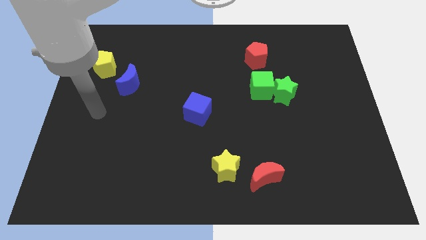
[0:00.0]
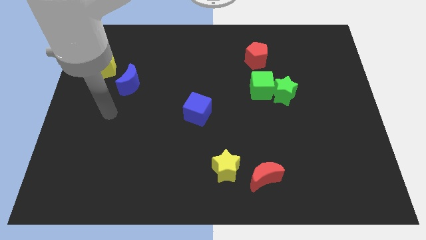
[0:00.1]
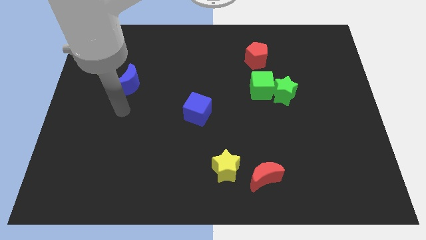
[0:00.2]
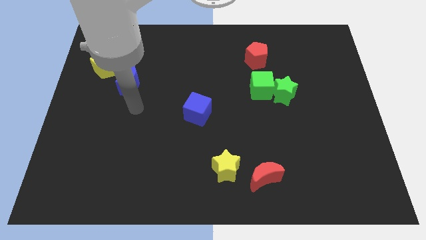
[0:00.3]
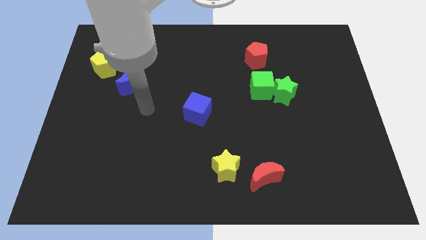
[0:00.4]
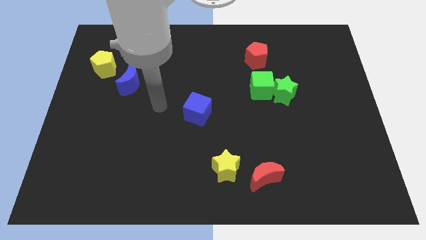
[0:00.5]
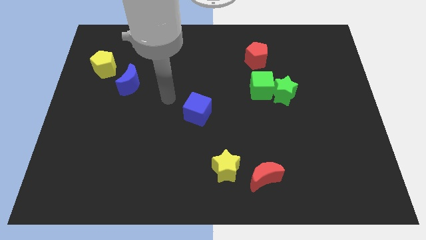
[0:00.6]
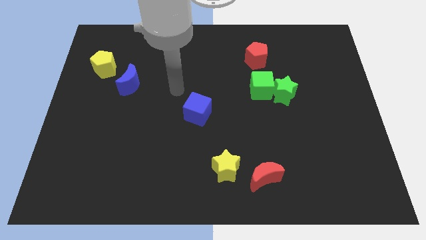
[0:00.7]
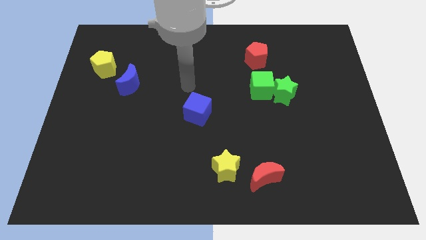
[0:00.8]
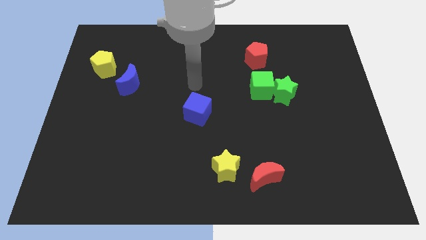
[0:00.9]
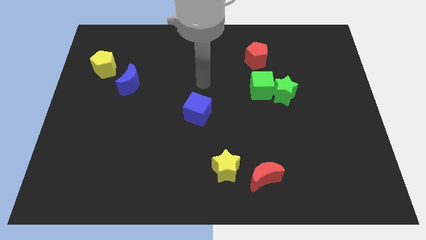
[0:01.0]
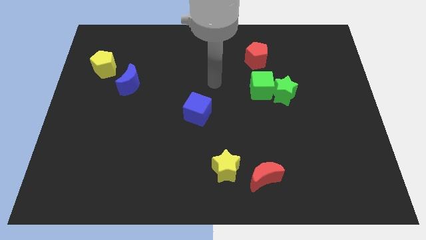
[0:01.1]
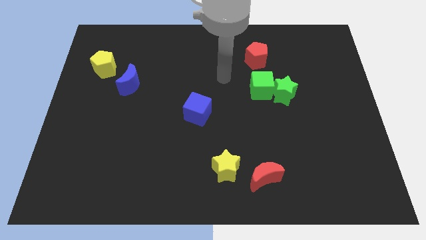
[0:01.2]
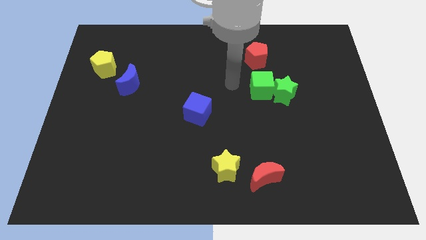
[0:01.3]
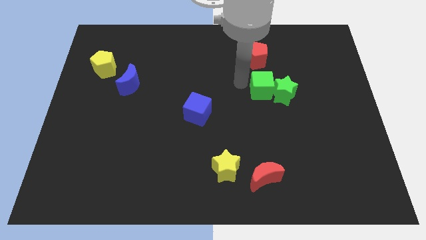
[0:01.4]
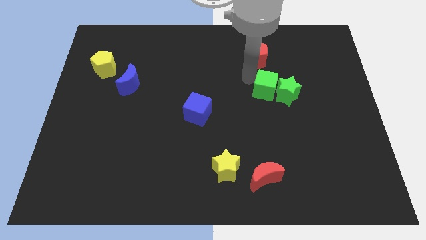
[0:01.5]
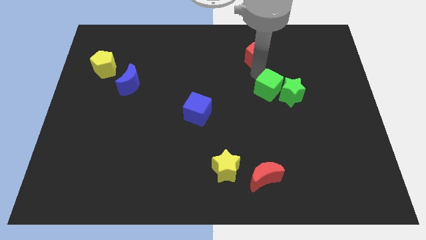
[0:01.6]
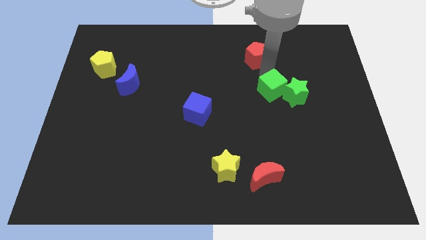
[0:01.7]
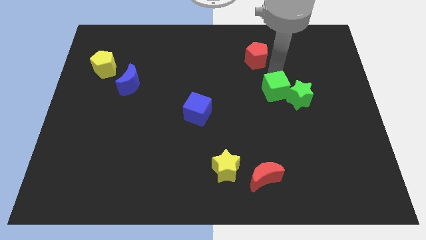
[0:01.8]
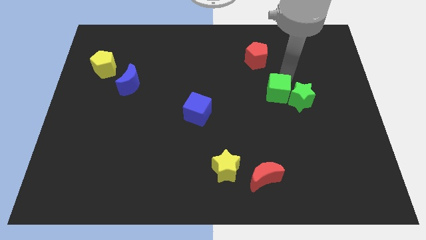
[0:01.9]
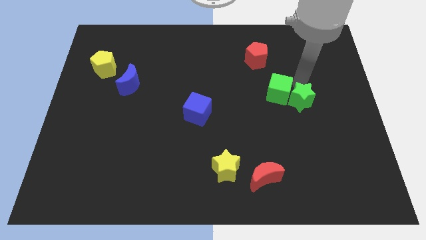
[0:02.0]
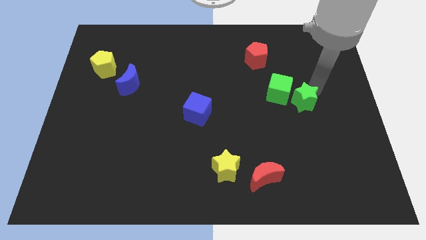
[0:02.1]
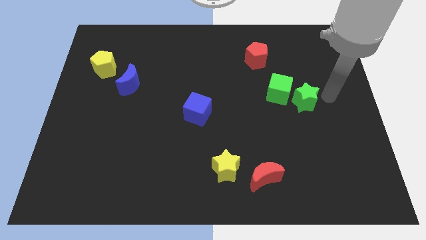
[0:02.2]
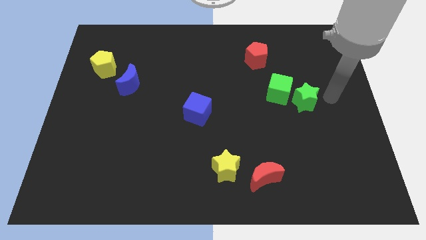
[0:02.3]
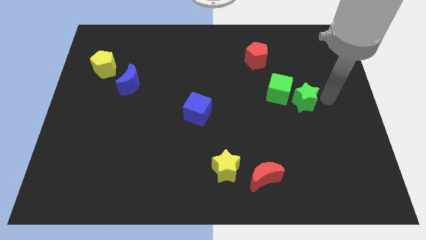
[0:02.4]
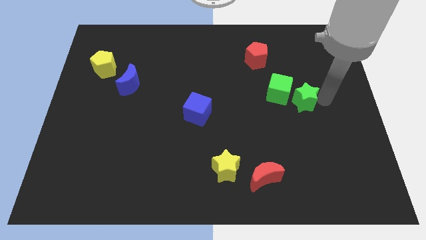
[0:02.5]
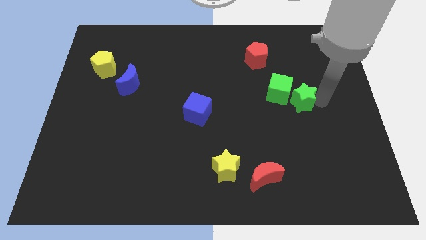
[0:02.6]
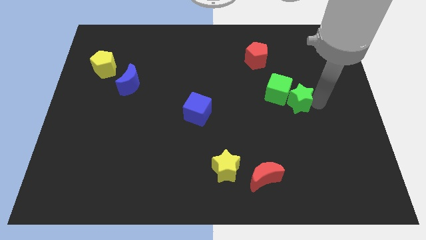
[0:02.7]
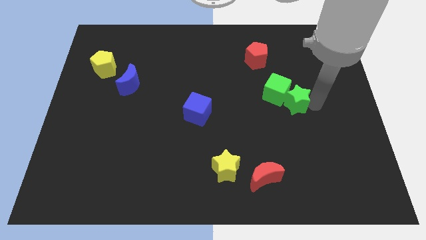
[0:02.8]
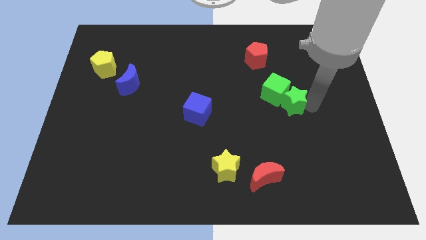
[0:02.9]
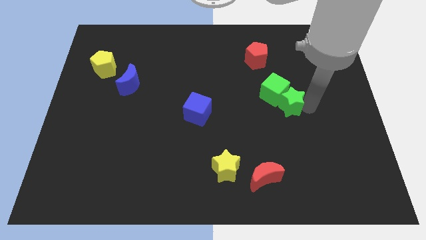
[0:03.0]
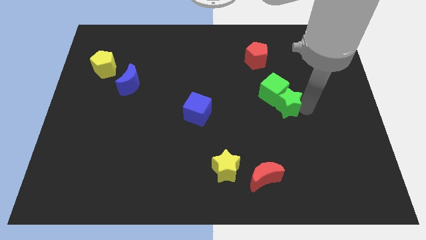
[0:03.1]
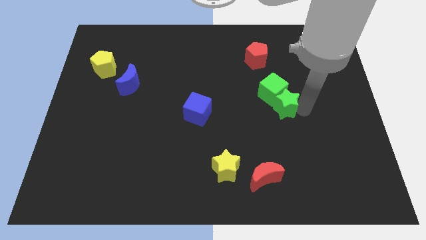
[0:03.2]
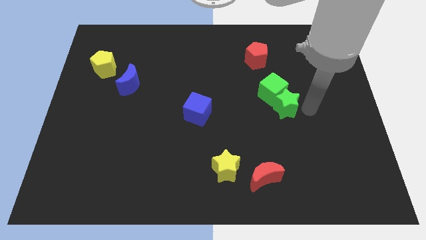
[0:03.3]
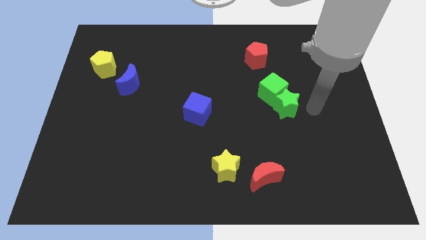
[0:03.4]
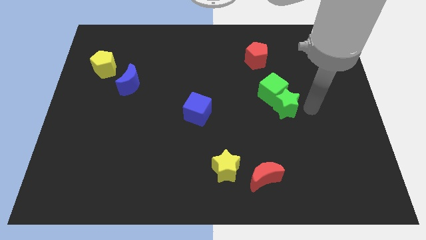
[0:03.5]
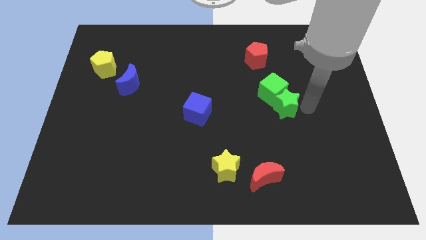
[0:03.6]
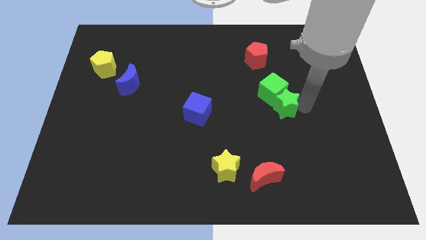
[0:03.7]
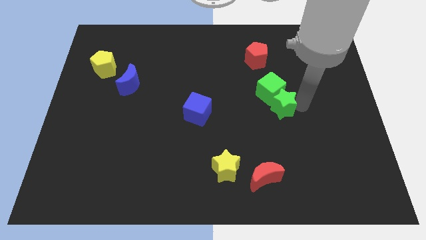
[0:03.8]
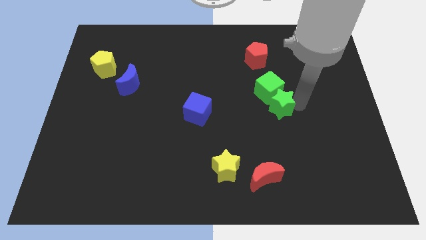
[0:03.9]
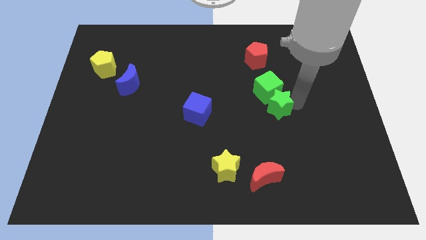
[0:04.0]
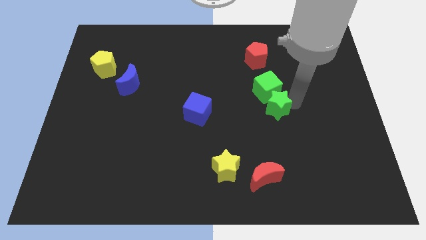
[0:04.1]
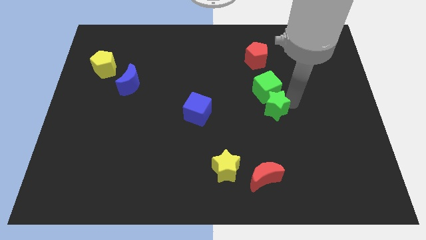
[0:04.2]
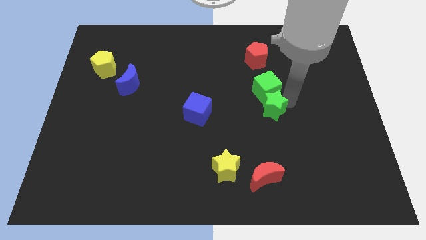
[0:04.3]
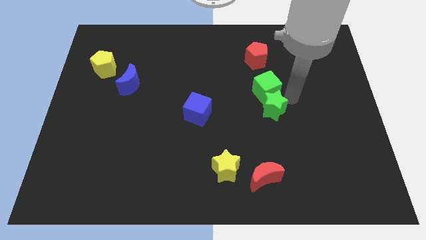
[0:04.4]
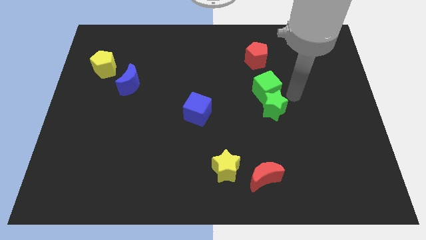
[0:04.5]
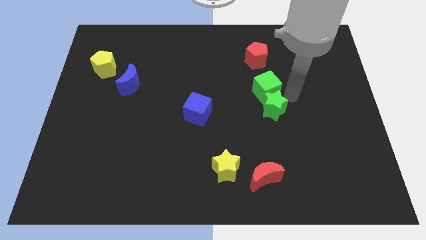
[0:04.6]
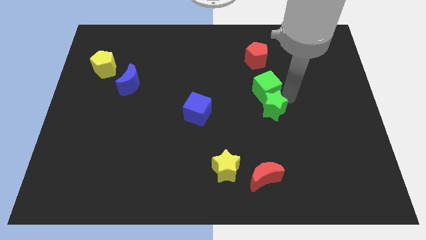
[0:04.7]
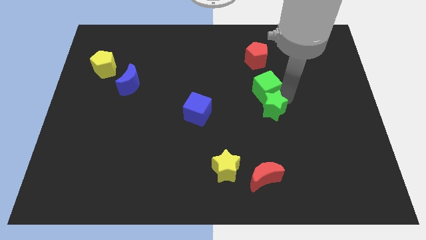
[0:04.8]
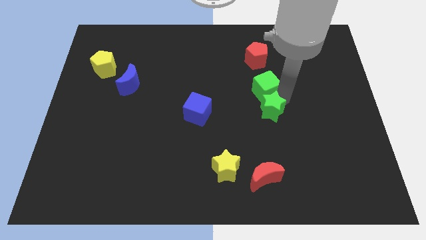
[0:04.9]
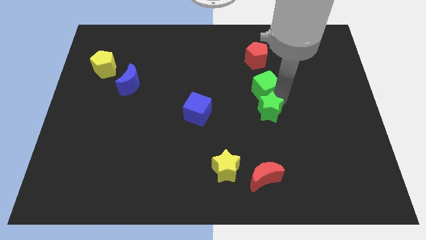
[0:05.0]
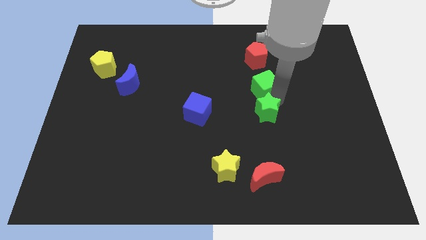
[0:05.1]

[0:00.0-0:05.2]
push the green star a bit down and then to the left

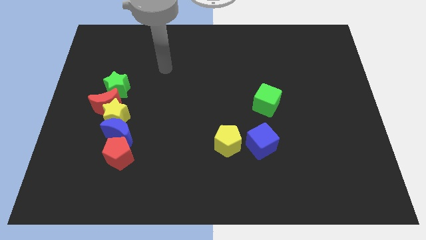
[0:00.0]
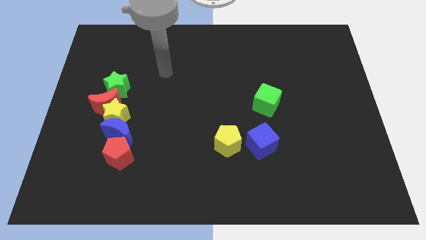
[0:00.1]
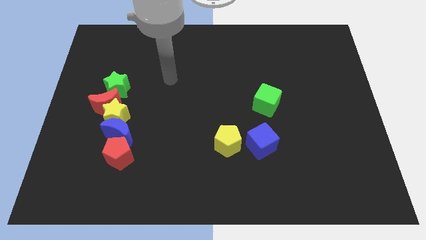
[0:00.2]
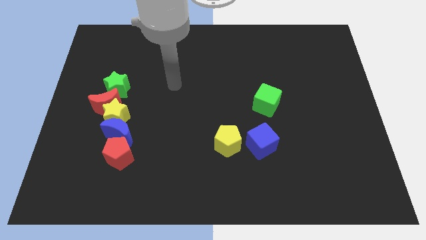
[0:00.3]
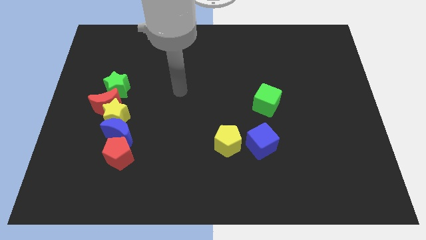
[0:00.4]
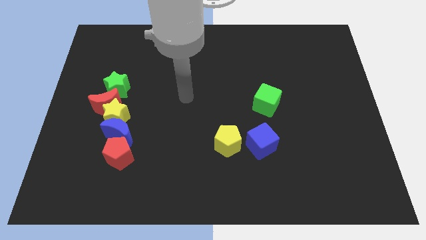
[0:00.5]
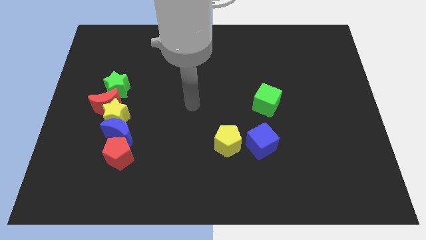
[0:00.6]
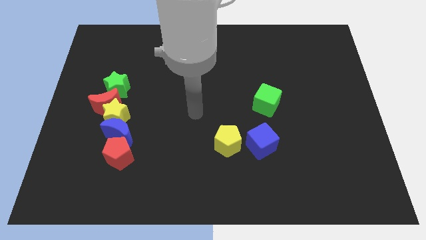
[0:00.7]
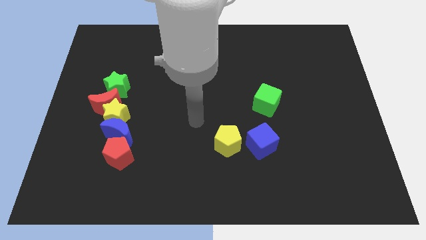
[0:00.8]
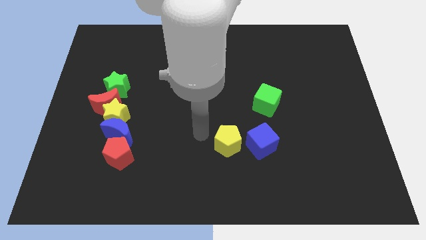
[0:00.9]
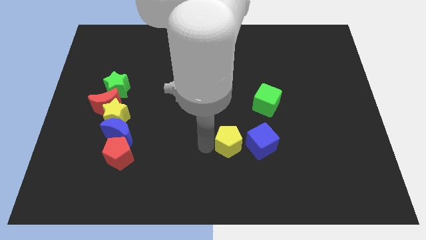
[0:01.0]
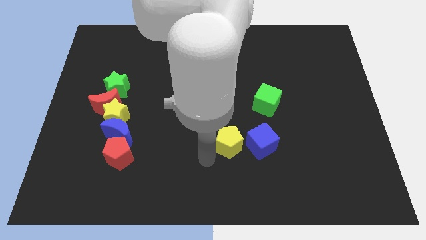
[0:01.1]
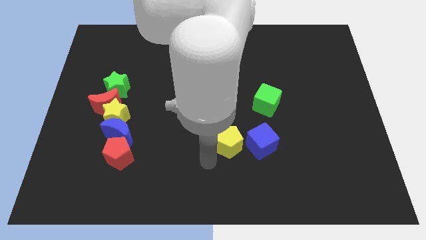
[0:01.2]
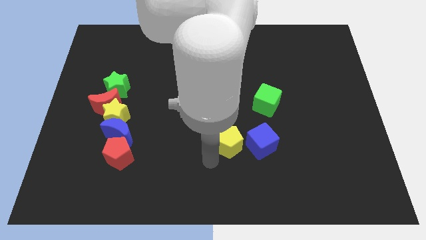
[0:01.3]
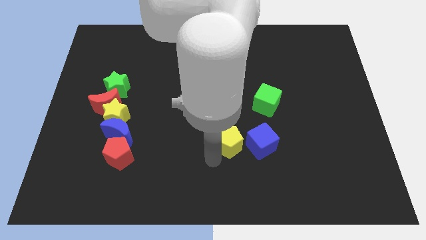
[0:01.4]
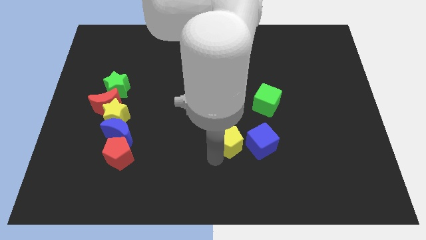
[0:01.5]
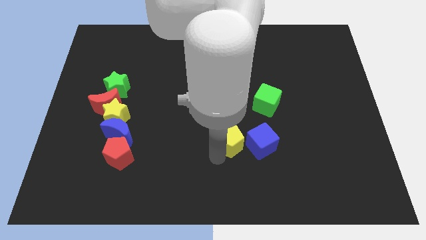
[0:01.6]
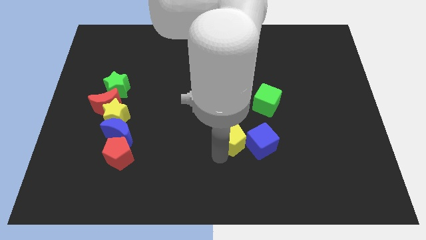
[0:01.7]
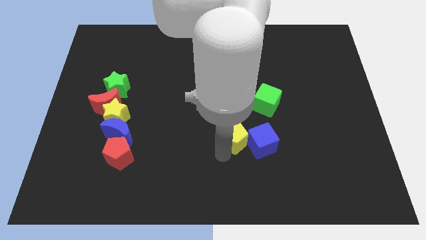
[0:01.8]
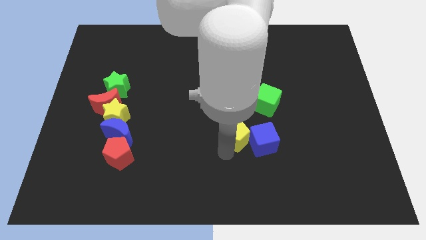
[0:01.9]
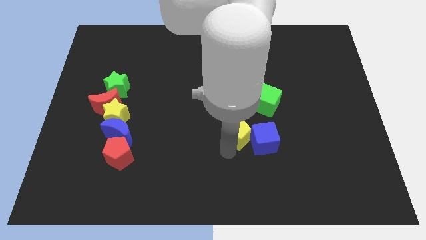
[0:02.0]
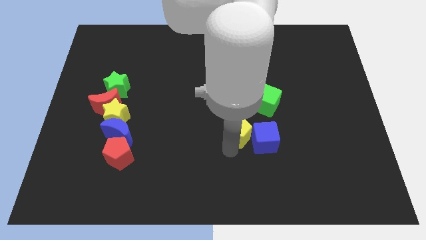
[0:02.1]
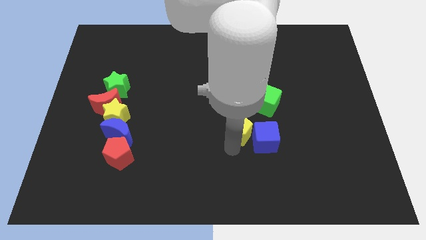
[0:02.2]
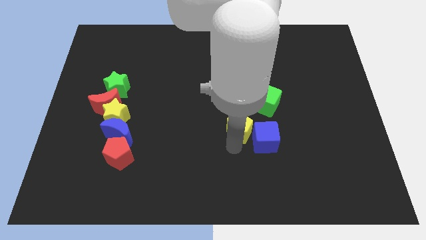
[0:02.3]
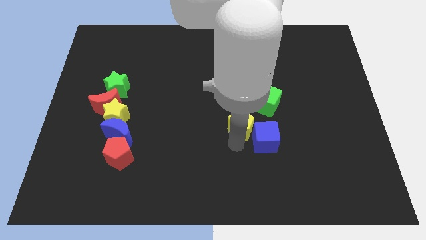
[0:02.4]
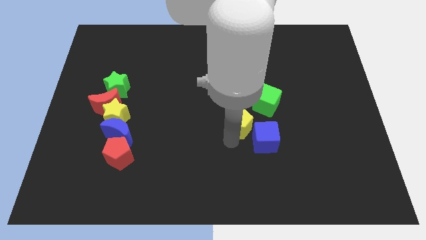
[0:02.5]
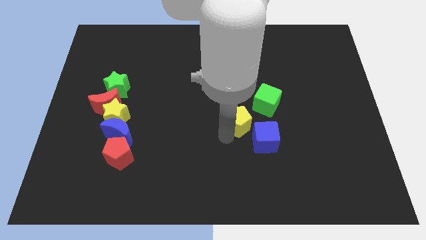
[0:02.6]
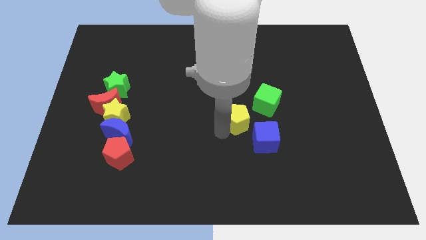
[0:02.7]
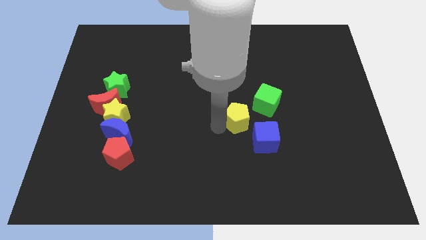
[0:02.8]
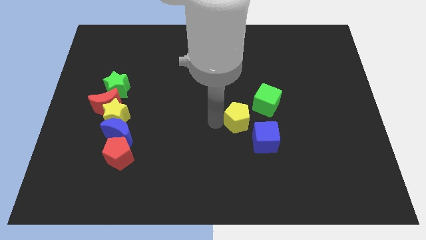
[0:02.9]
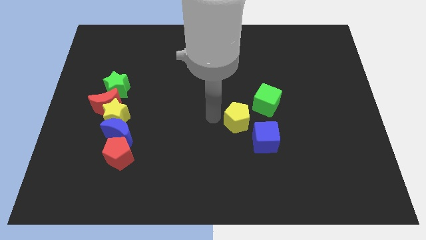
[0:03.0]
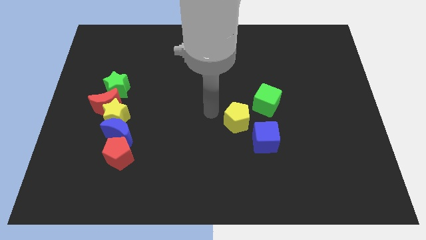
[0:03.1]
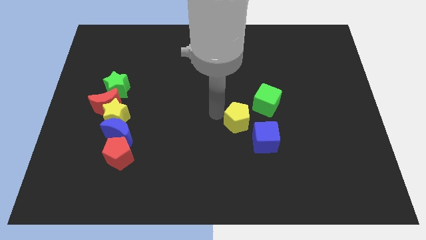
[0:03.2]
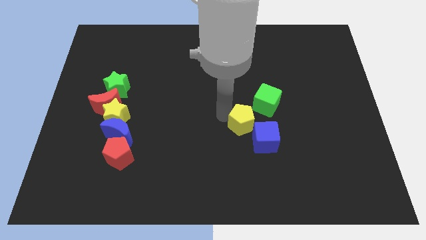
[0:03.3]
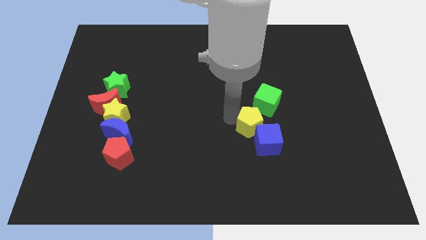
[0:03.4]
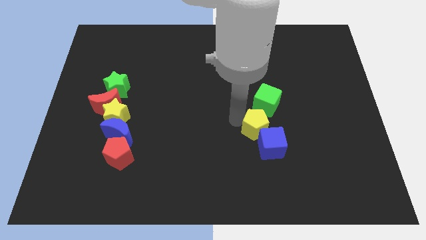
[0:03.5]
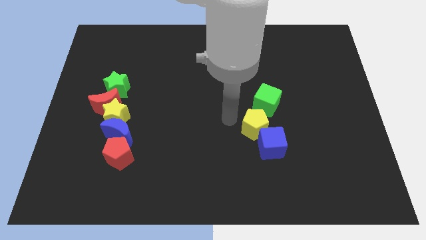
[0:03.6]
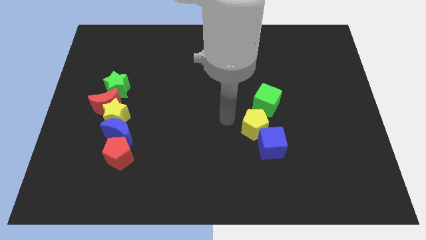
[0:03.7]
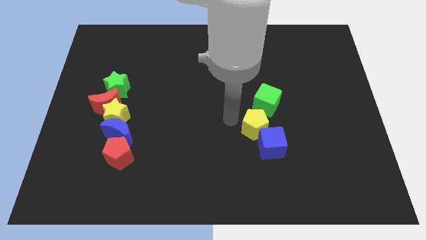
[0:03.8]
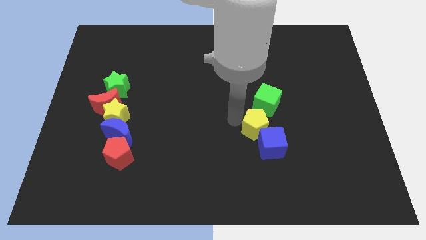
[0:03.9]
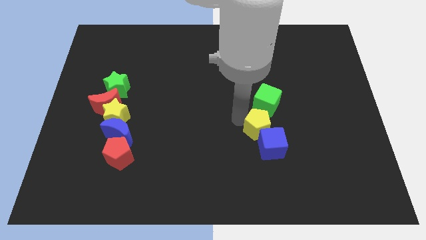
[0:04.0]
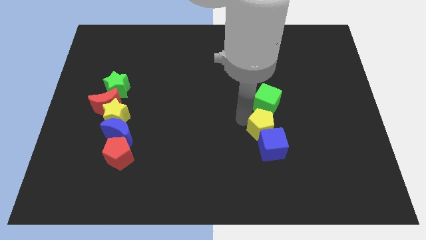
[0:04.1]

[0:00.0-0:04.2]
slightly push the yellow pentagon right
